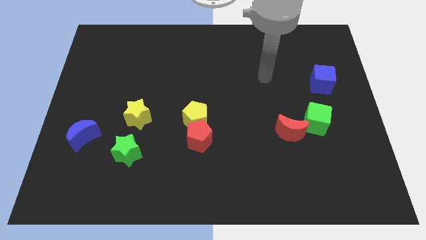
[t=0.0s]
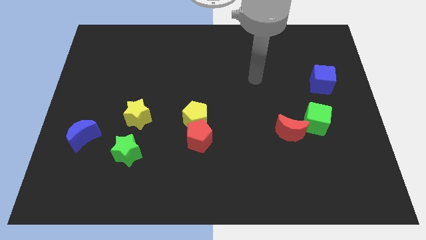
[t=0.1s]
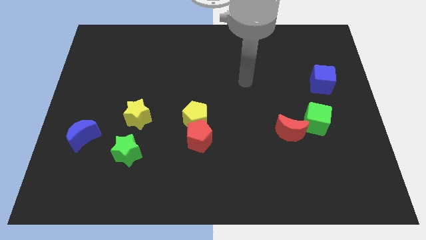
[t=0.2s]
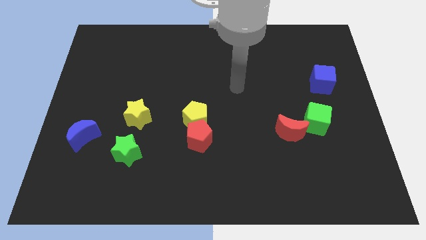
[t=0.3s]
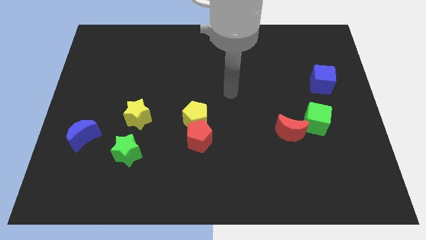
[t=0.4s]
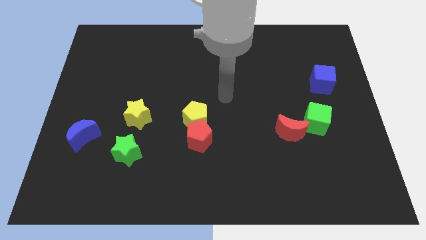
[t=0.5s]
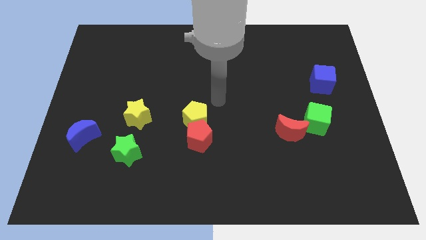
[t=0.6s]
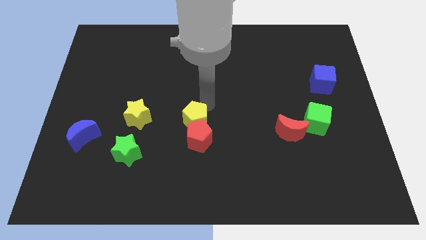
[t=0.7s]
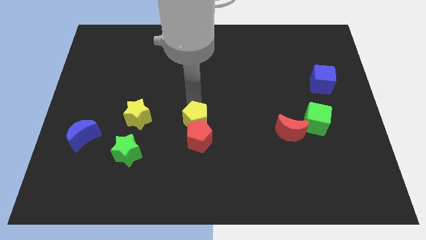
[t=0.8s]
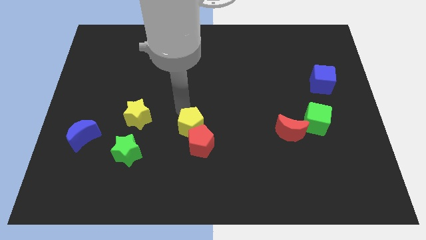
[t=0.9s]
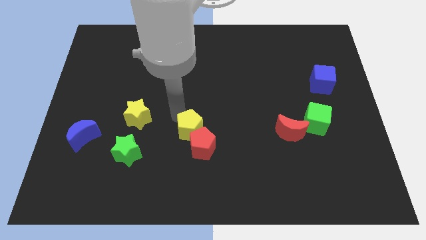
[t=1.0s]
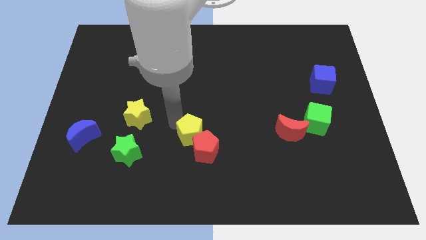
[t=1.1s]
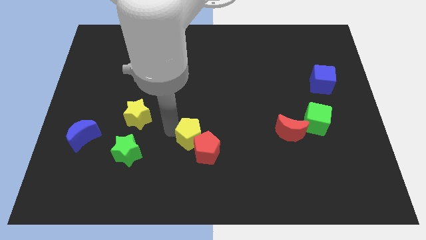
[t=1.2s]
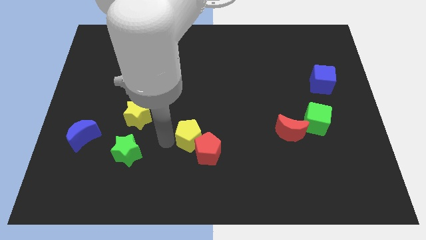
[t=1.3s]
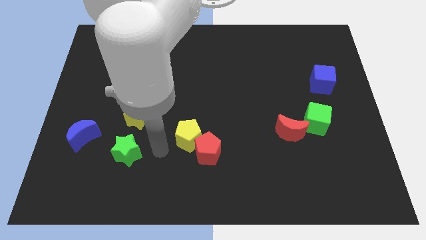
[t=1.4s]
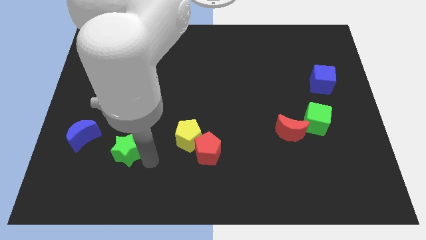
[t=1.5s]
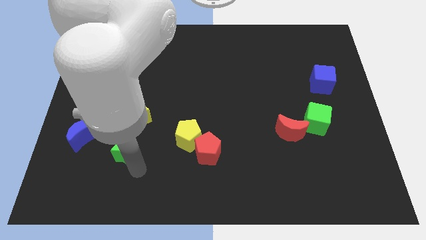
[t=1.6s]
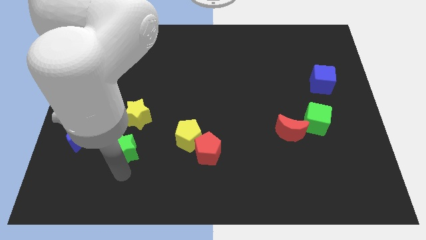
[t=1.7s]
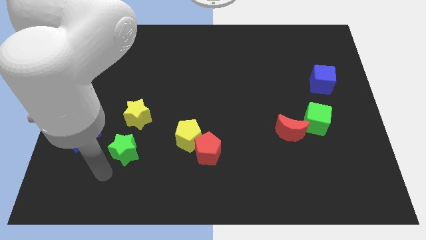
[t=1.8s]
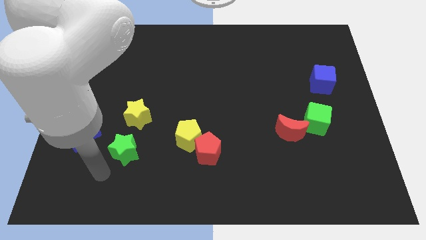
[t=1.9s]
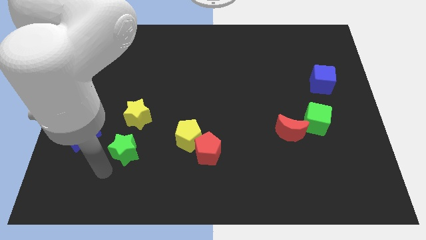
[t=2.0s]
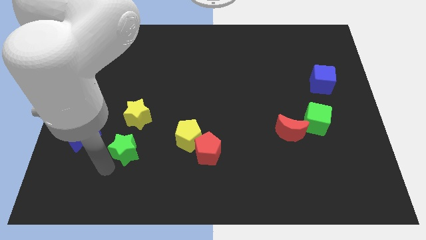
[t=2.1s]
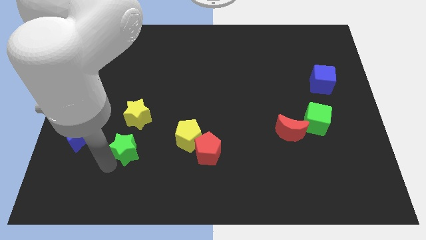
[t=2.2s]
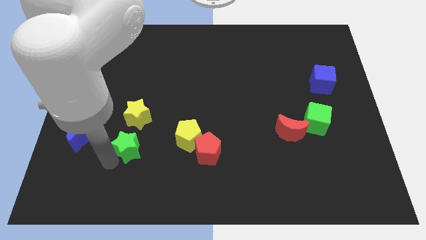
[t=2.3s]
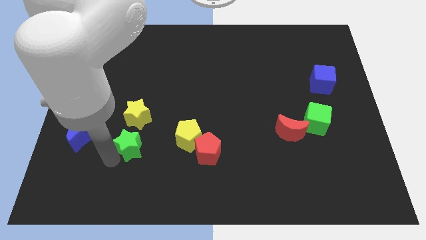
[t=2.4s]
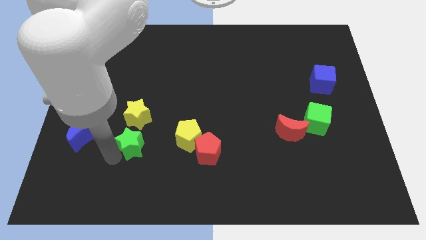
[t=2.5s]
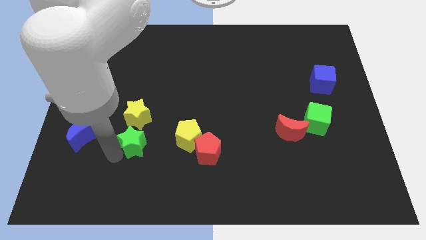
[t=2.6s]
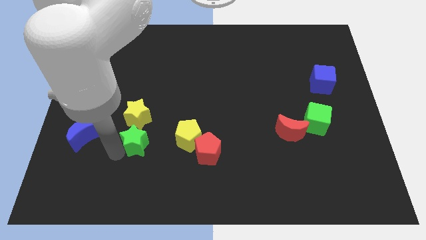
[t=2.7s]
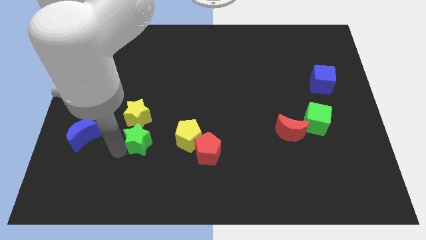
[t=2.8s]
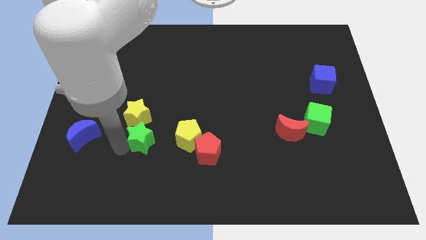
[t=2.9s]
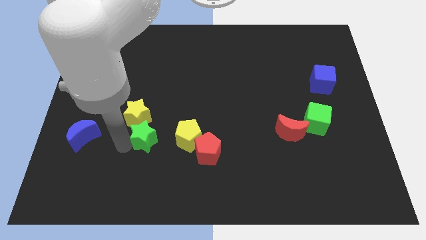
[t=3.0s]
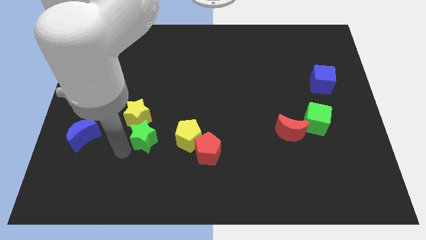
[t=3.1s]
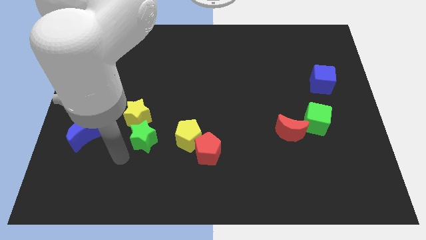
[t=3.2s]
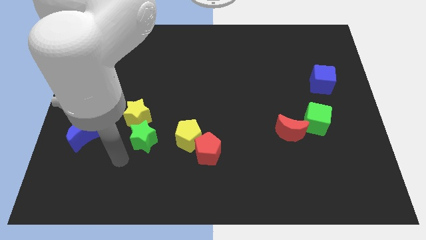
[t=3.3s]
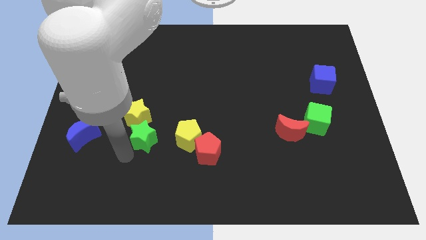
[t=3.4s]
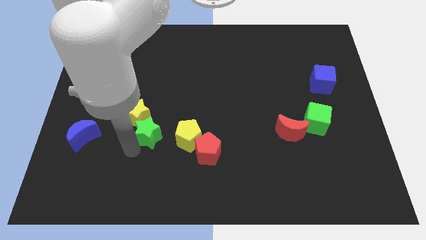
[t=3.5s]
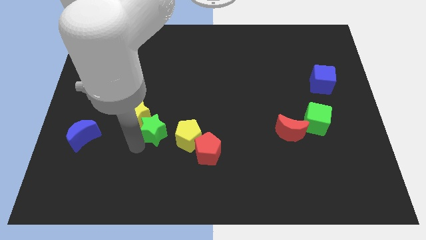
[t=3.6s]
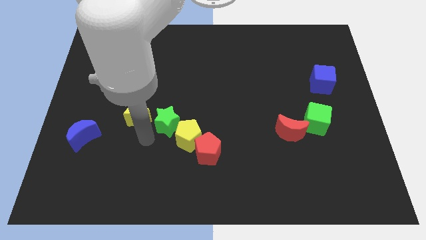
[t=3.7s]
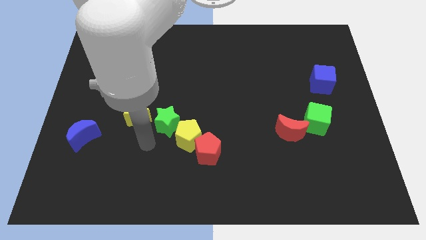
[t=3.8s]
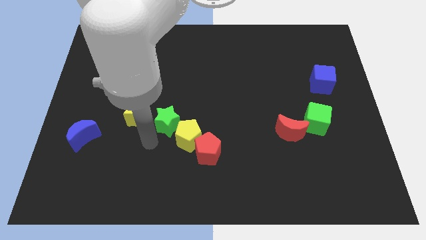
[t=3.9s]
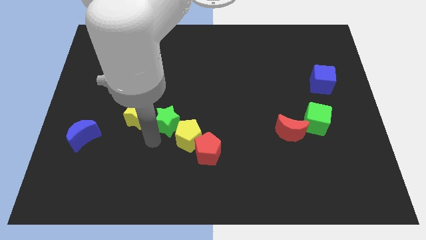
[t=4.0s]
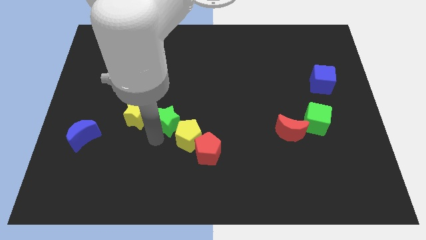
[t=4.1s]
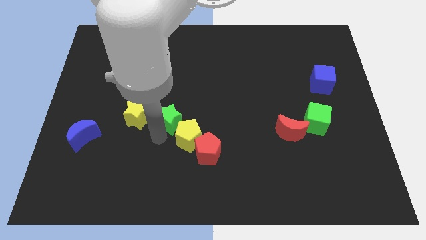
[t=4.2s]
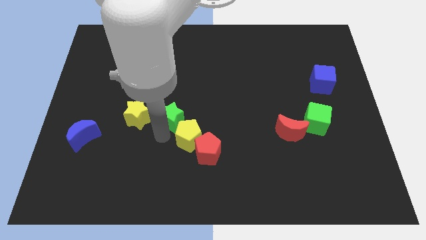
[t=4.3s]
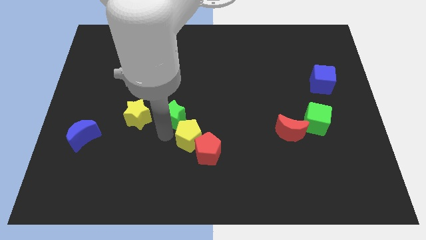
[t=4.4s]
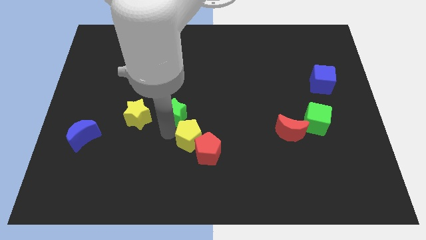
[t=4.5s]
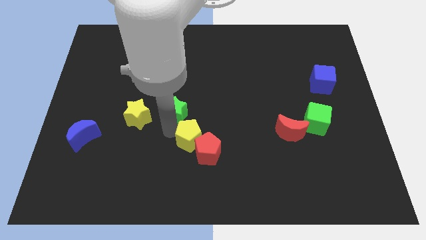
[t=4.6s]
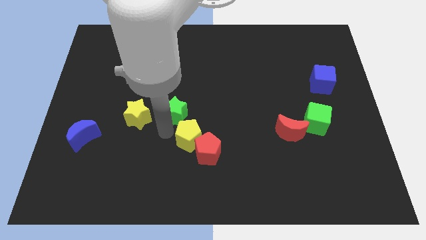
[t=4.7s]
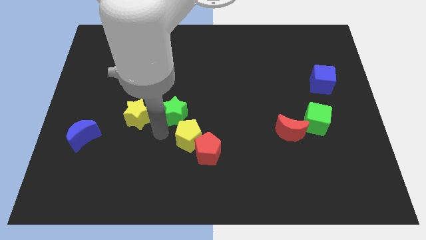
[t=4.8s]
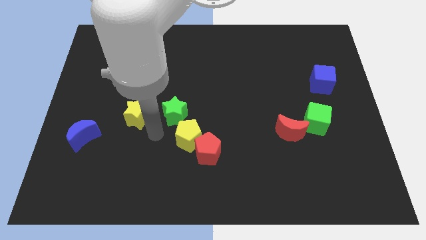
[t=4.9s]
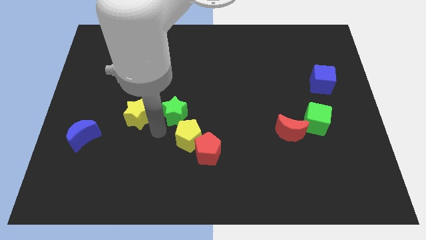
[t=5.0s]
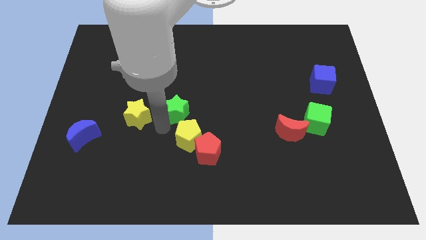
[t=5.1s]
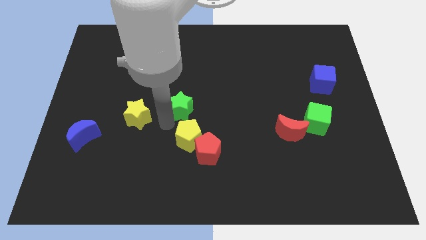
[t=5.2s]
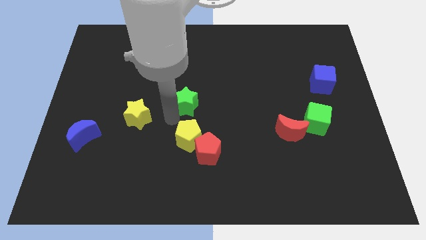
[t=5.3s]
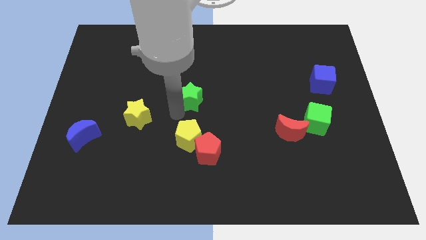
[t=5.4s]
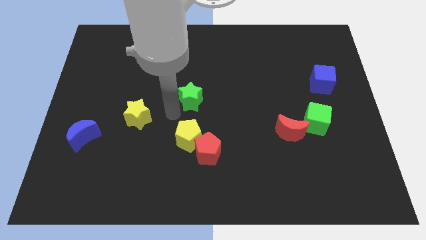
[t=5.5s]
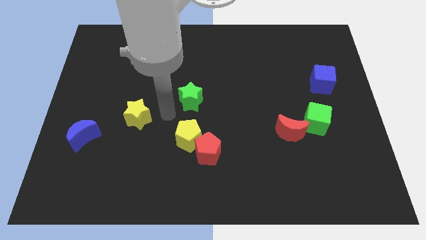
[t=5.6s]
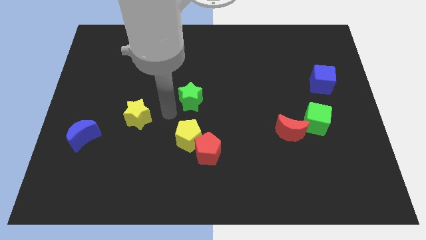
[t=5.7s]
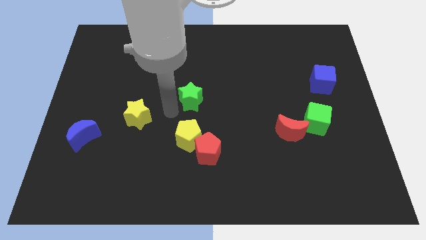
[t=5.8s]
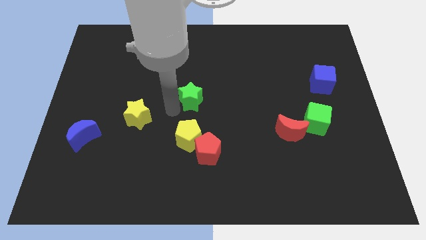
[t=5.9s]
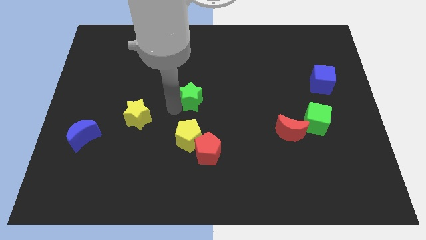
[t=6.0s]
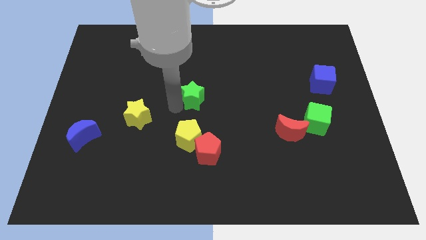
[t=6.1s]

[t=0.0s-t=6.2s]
slide the green star upwards and to the right

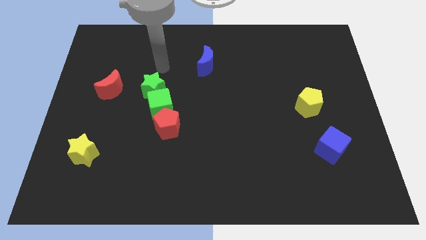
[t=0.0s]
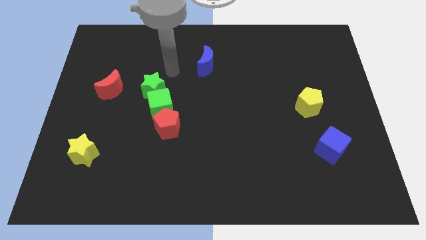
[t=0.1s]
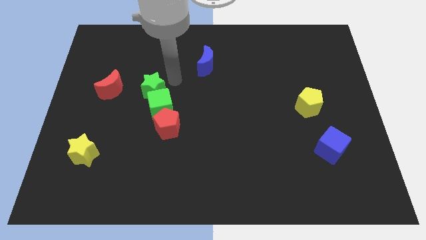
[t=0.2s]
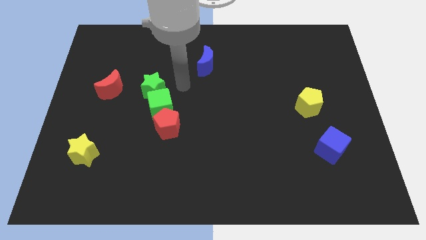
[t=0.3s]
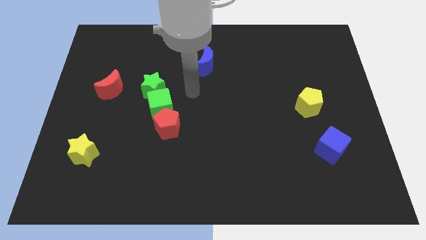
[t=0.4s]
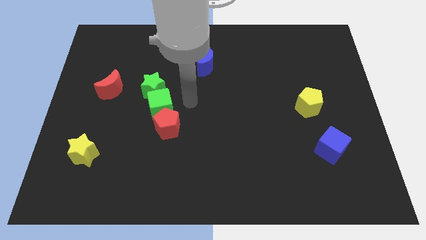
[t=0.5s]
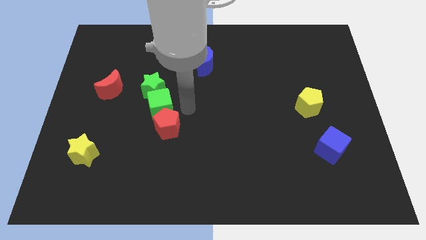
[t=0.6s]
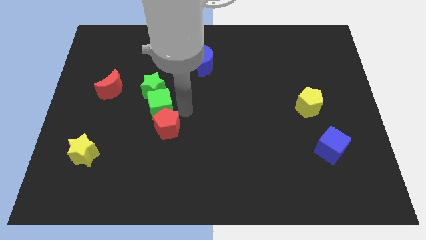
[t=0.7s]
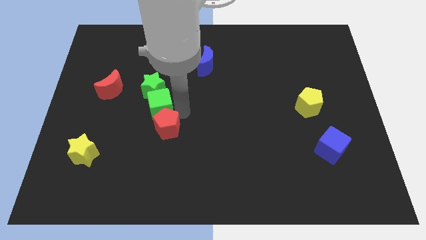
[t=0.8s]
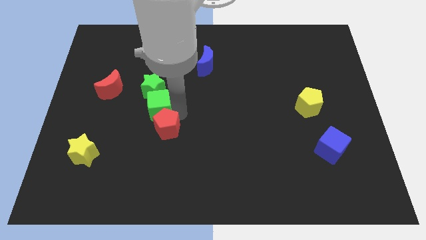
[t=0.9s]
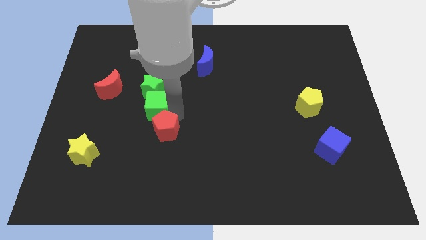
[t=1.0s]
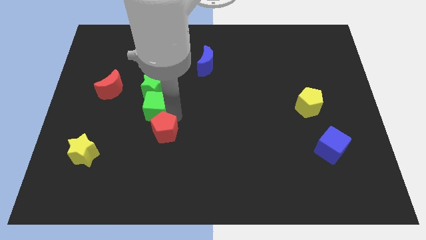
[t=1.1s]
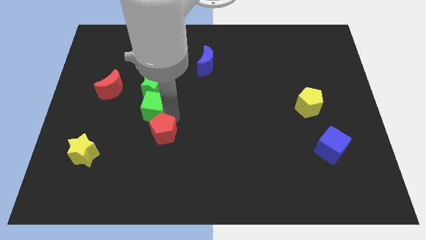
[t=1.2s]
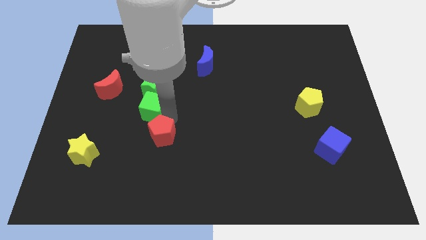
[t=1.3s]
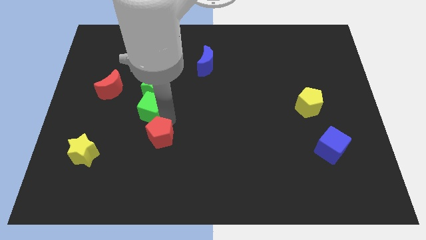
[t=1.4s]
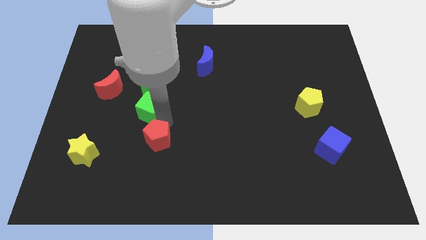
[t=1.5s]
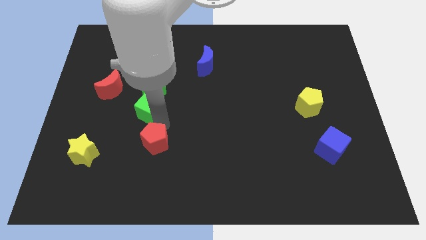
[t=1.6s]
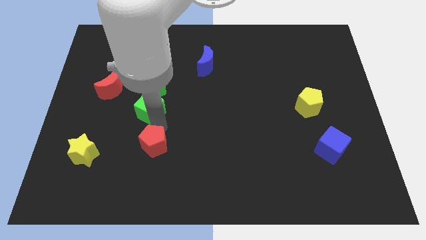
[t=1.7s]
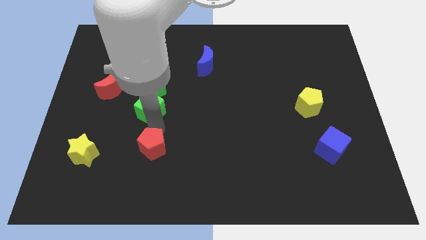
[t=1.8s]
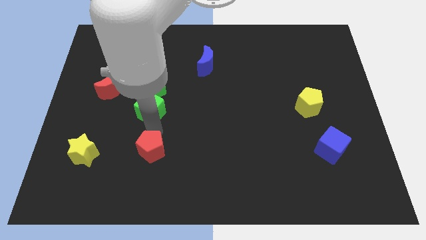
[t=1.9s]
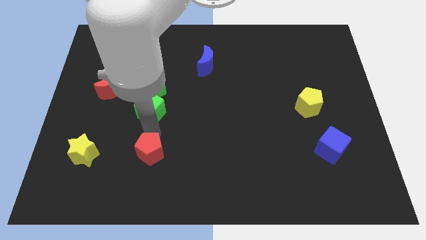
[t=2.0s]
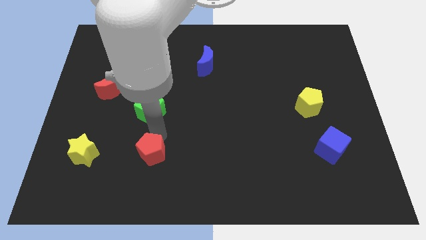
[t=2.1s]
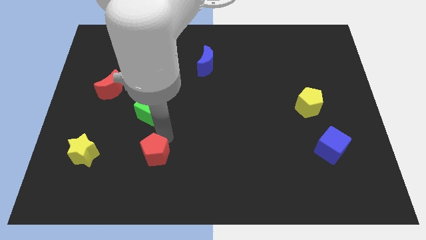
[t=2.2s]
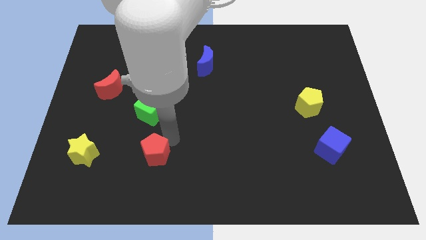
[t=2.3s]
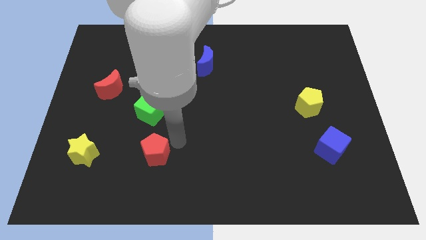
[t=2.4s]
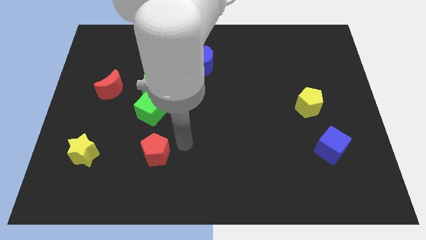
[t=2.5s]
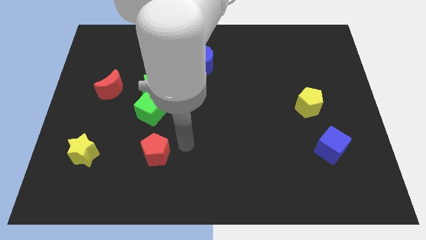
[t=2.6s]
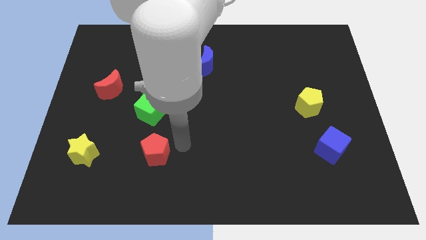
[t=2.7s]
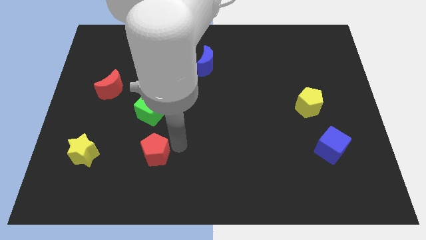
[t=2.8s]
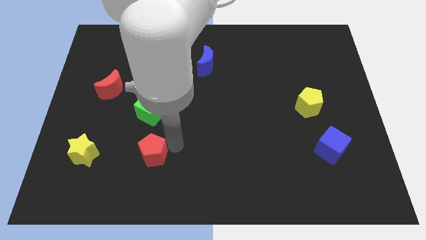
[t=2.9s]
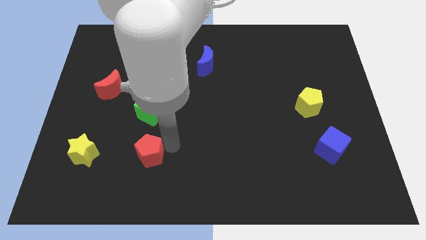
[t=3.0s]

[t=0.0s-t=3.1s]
slightly move the red pentagon downwards and to the left
